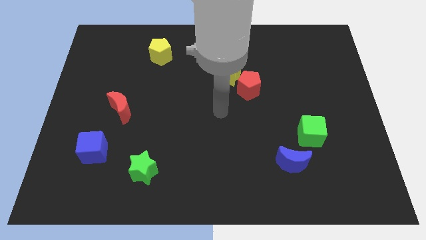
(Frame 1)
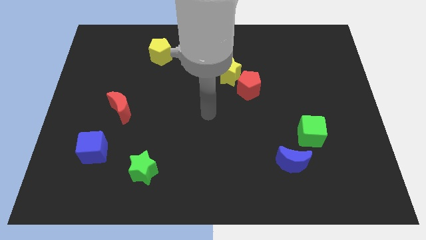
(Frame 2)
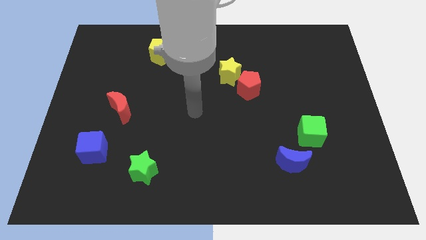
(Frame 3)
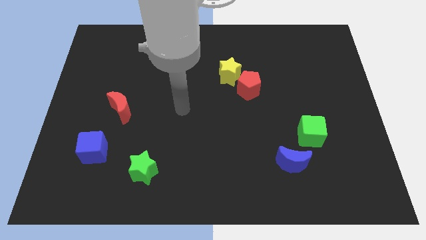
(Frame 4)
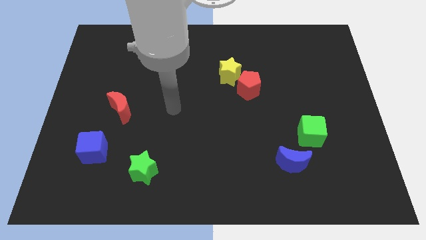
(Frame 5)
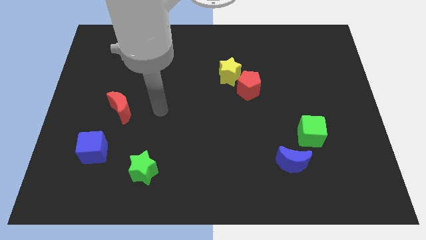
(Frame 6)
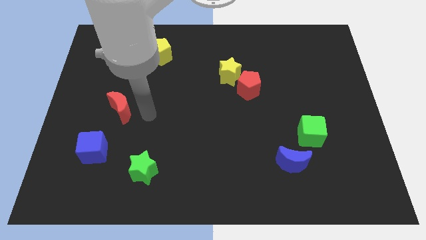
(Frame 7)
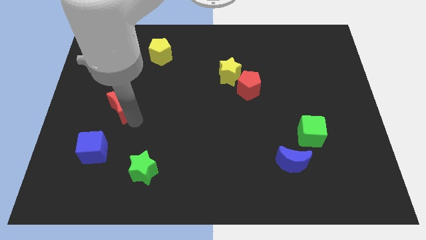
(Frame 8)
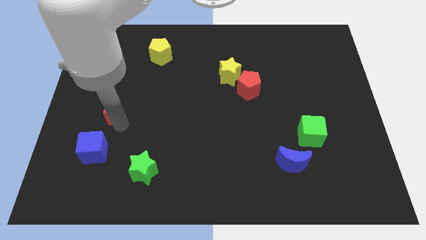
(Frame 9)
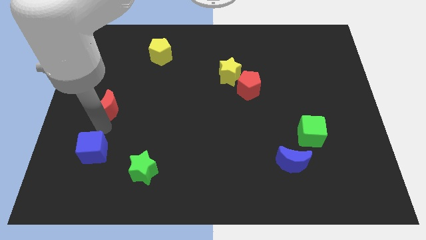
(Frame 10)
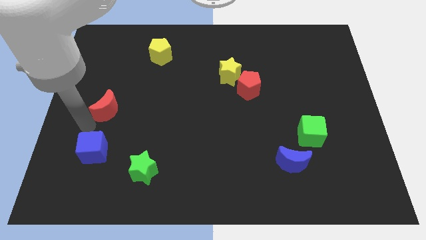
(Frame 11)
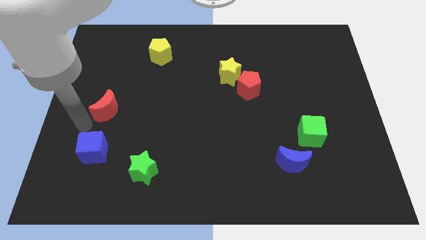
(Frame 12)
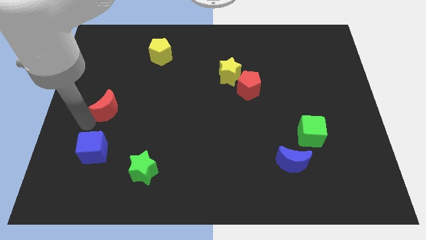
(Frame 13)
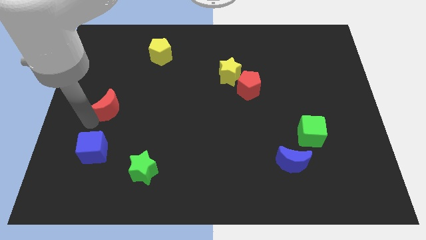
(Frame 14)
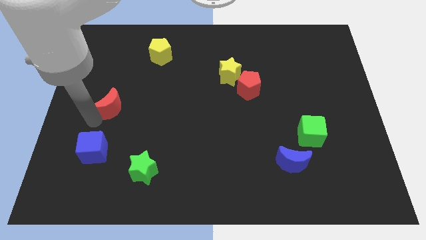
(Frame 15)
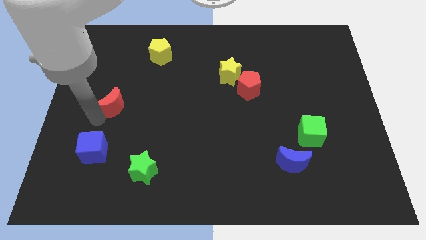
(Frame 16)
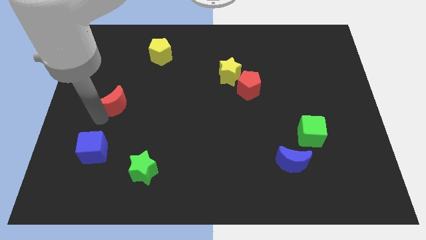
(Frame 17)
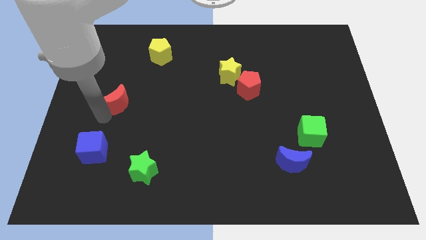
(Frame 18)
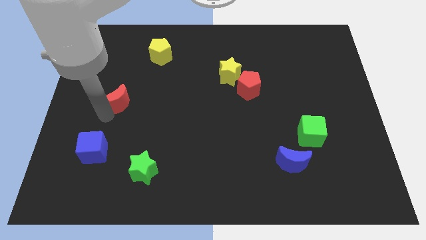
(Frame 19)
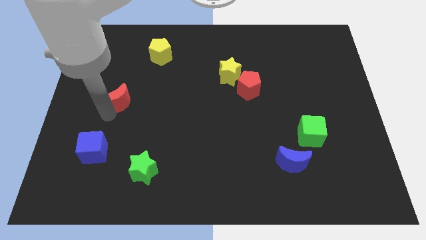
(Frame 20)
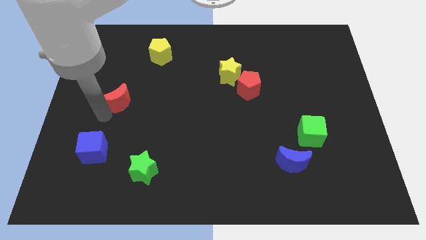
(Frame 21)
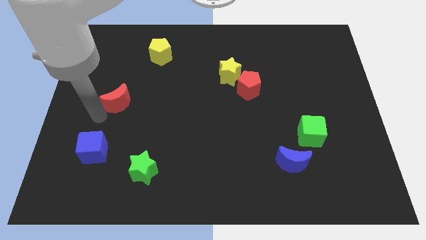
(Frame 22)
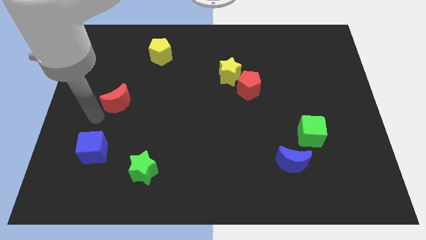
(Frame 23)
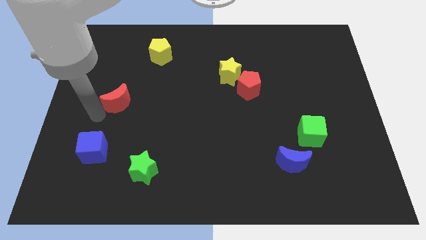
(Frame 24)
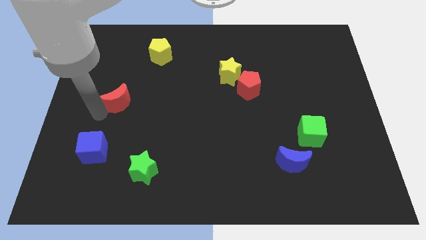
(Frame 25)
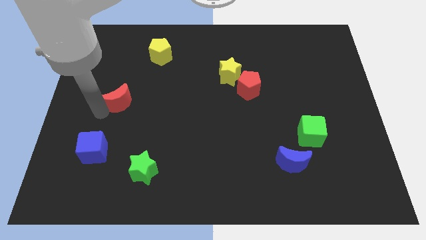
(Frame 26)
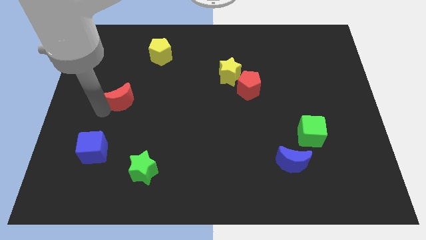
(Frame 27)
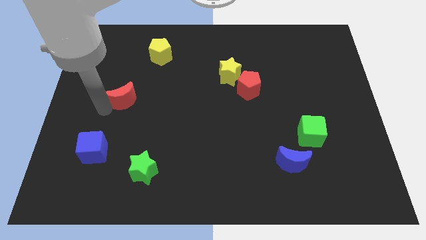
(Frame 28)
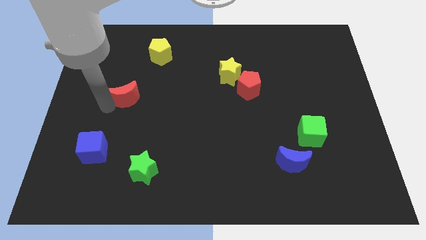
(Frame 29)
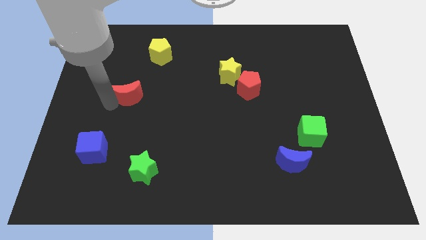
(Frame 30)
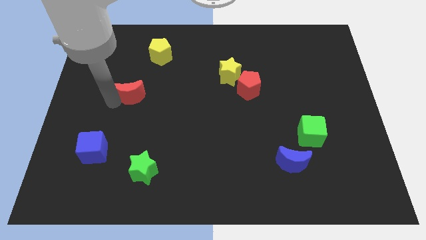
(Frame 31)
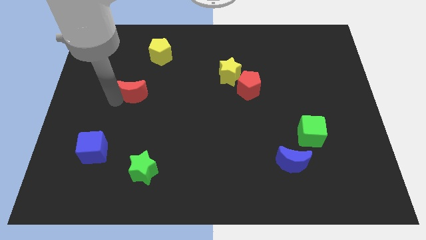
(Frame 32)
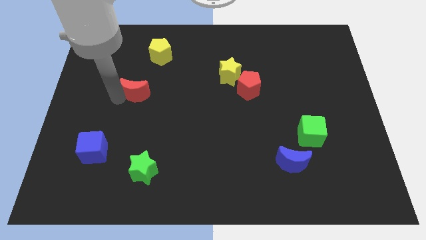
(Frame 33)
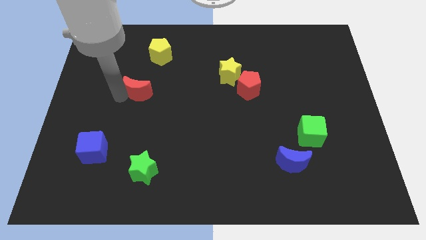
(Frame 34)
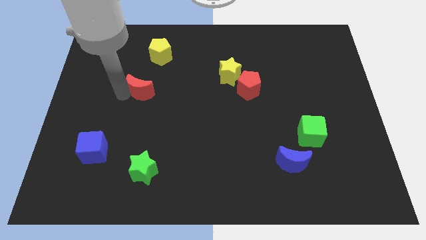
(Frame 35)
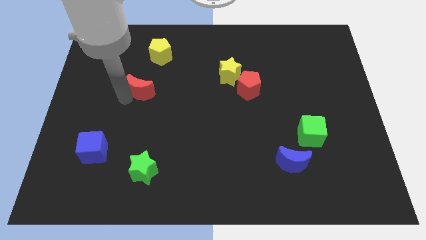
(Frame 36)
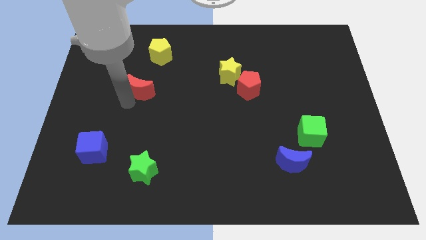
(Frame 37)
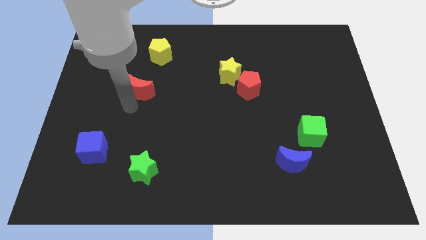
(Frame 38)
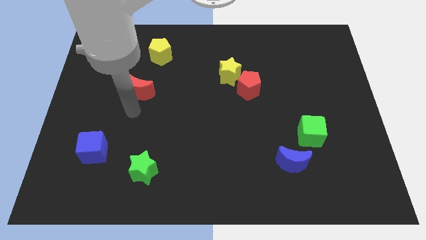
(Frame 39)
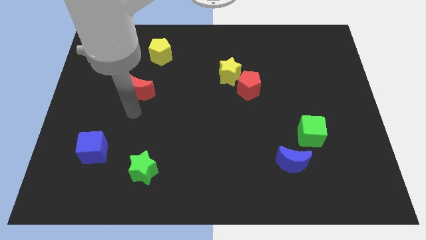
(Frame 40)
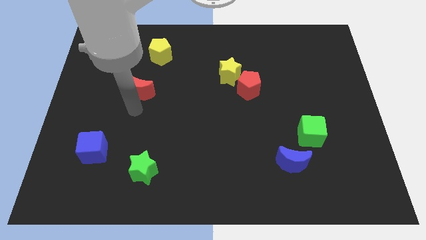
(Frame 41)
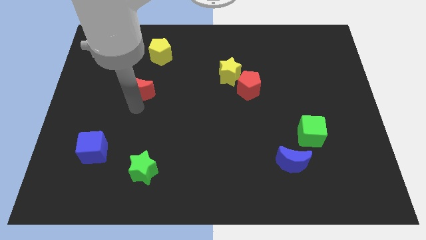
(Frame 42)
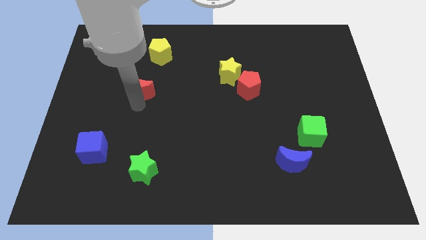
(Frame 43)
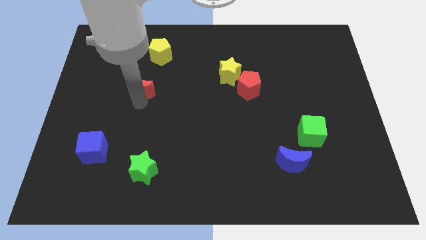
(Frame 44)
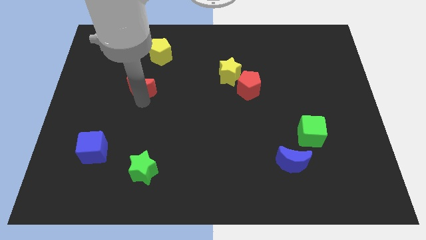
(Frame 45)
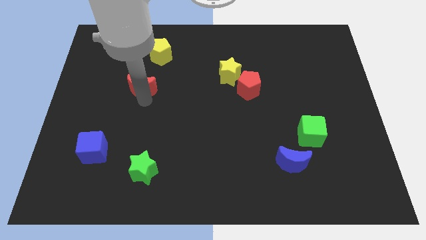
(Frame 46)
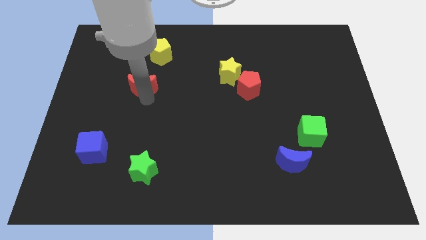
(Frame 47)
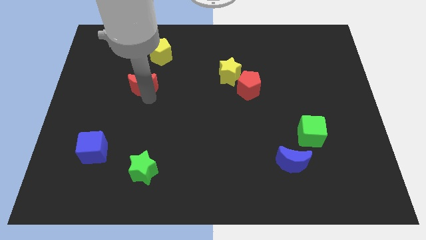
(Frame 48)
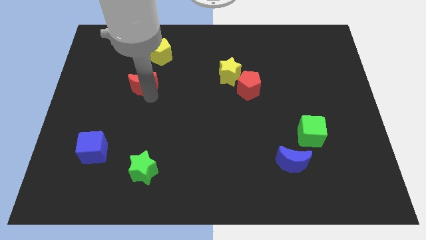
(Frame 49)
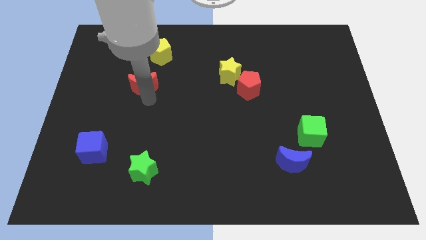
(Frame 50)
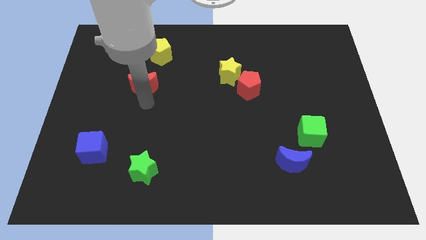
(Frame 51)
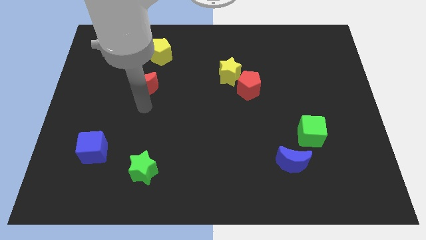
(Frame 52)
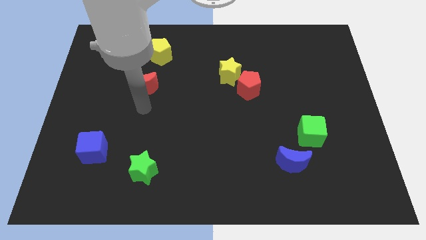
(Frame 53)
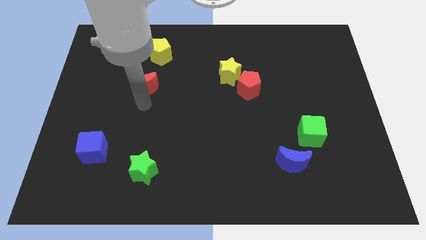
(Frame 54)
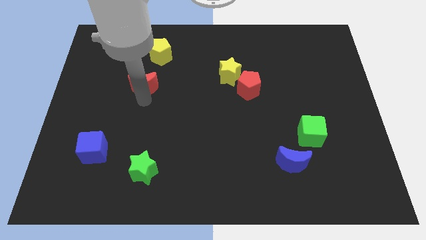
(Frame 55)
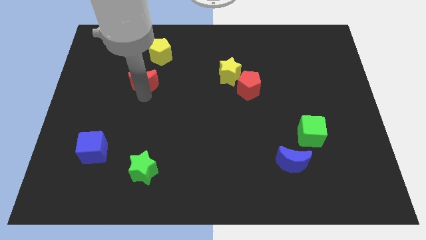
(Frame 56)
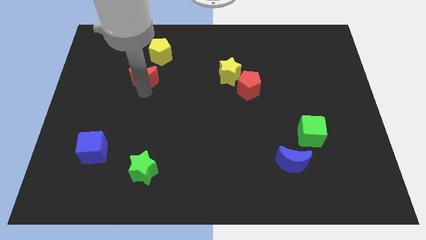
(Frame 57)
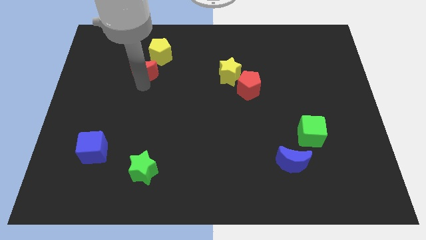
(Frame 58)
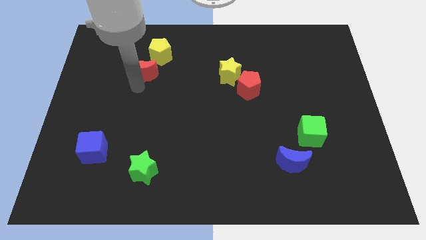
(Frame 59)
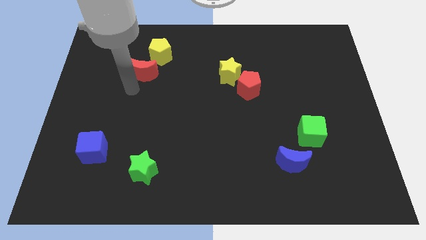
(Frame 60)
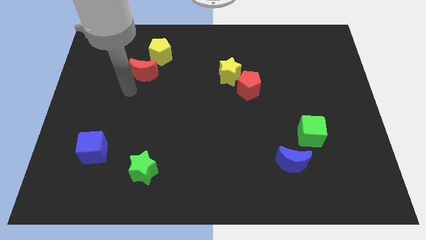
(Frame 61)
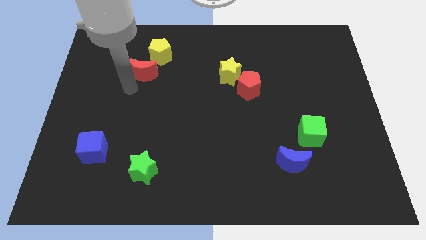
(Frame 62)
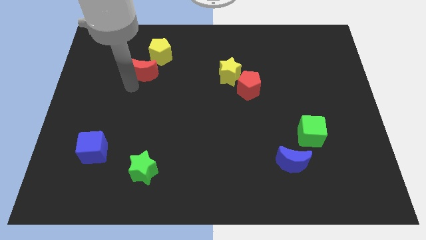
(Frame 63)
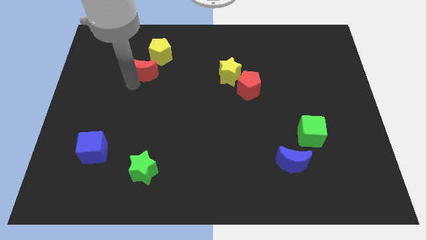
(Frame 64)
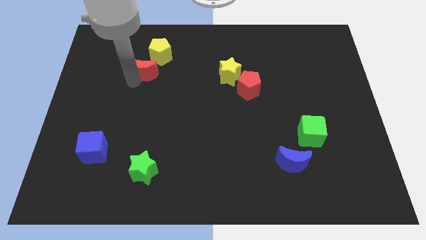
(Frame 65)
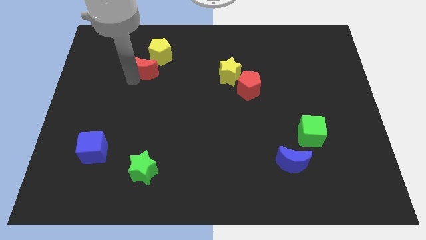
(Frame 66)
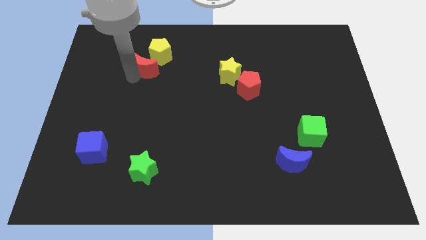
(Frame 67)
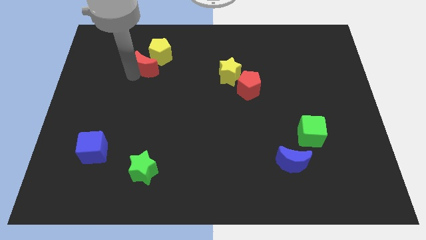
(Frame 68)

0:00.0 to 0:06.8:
put the red moon towards the yellow pentagon

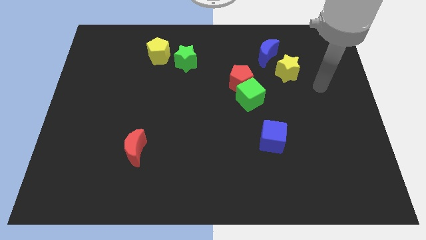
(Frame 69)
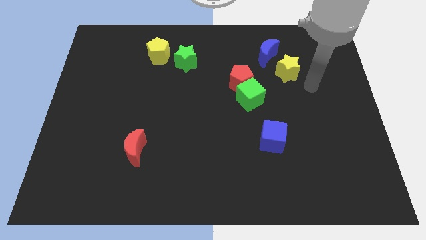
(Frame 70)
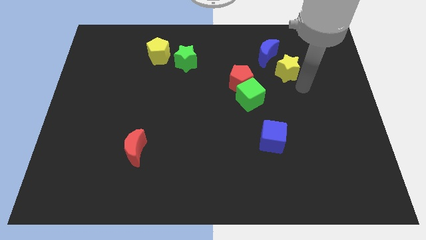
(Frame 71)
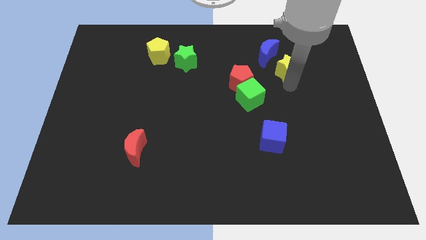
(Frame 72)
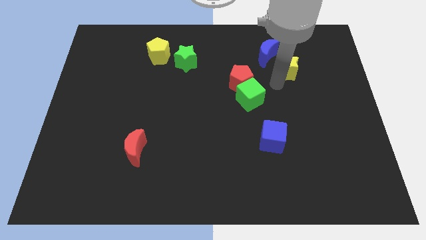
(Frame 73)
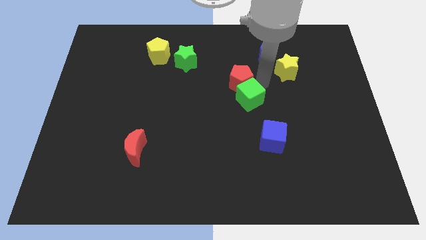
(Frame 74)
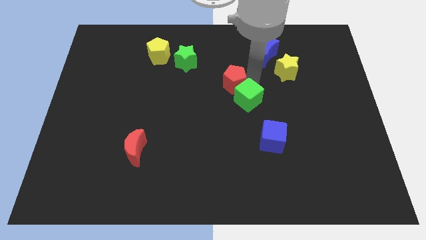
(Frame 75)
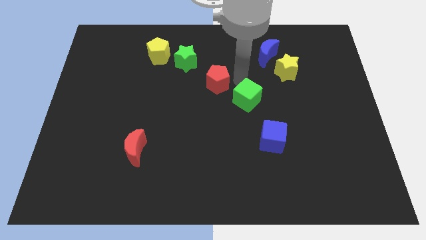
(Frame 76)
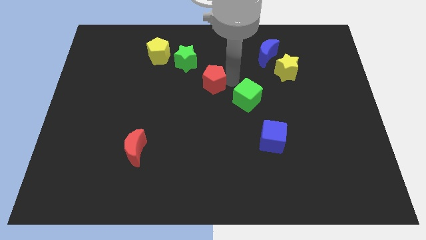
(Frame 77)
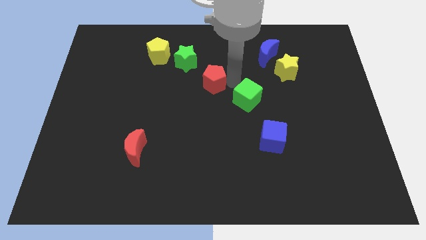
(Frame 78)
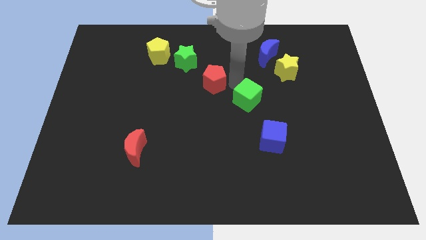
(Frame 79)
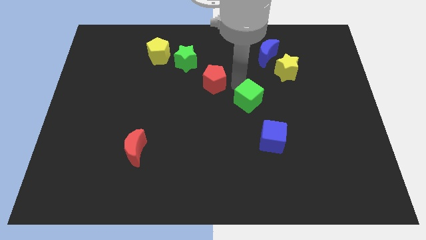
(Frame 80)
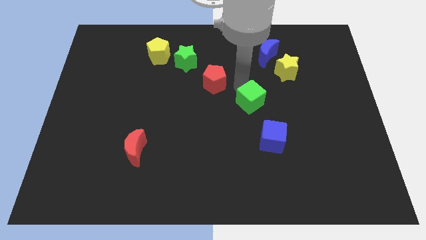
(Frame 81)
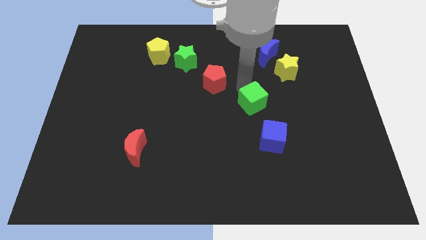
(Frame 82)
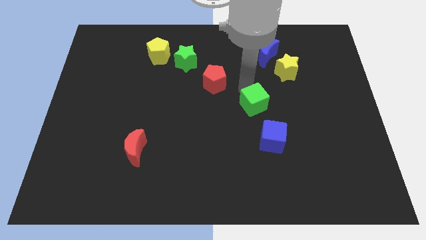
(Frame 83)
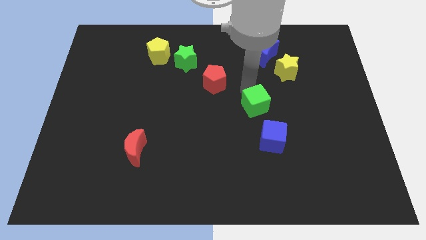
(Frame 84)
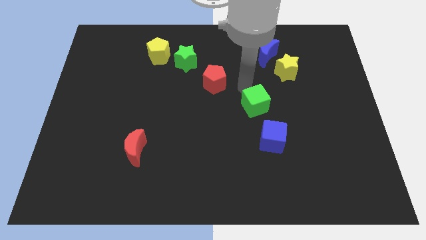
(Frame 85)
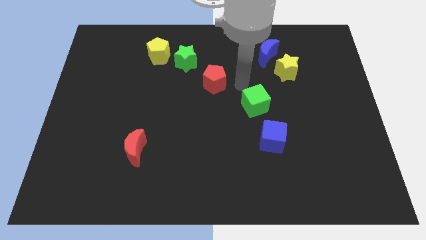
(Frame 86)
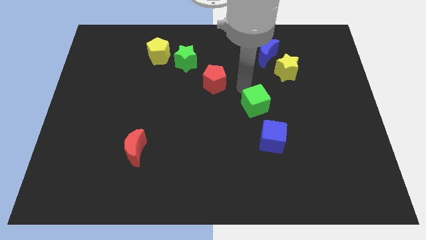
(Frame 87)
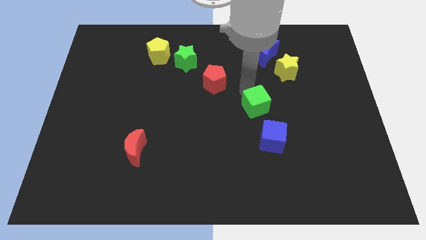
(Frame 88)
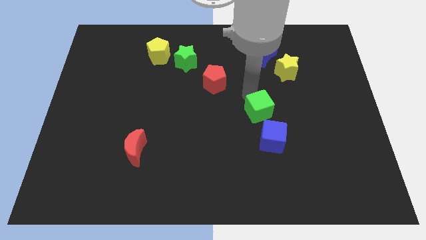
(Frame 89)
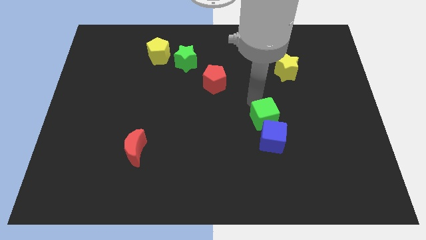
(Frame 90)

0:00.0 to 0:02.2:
move the green cube towards the blue cube
